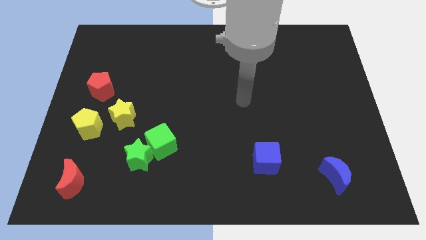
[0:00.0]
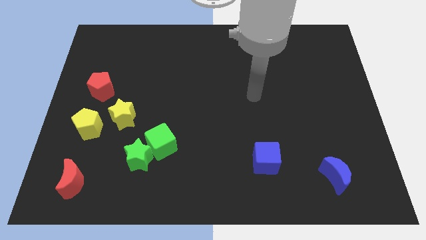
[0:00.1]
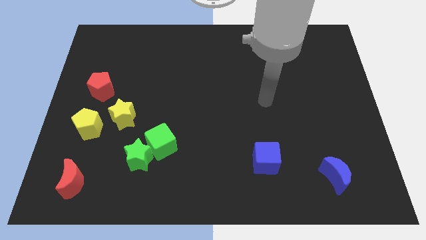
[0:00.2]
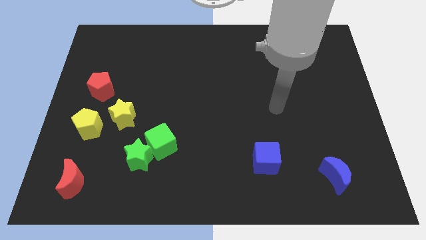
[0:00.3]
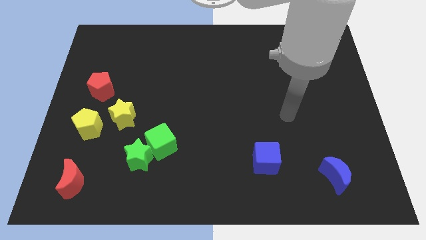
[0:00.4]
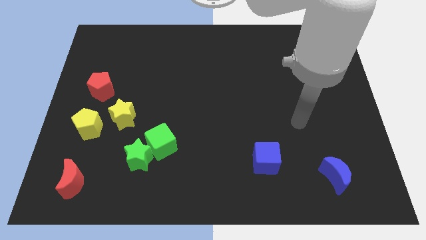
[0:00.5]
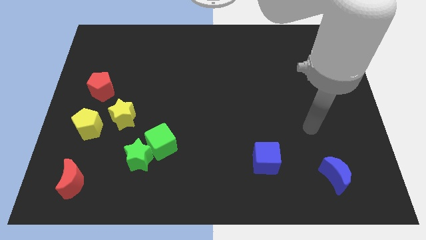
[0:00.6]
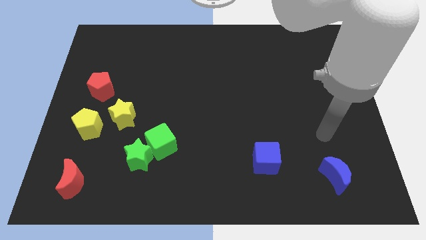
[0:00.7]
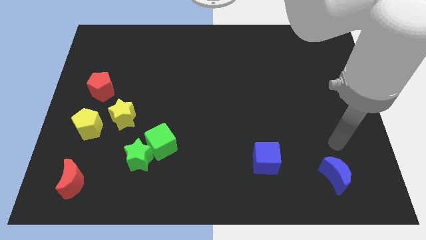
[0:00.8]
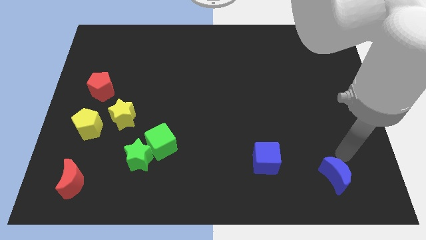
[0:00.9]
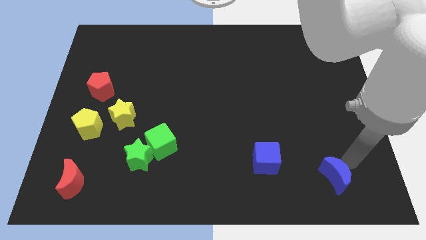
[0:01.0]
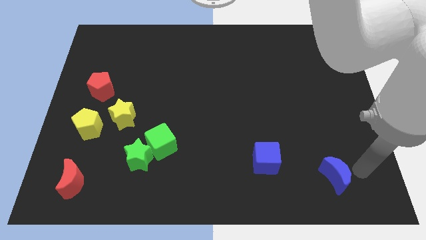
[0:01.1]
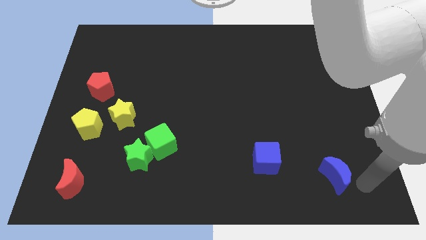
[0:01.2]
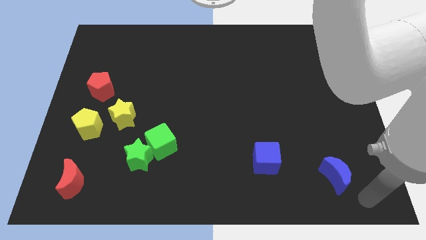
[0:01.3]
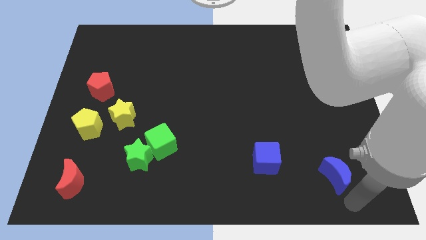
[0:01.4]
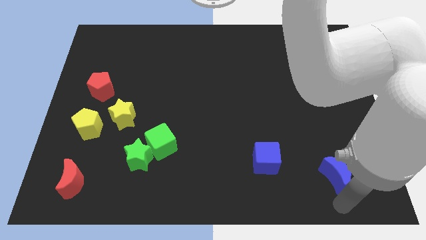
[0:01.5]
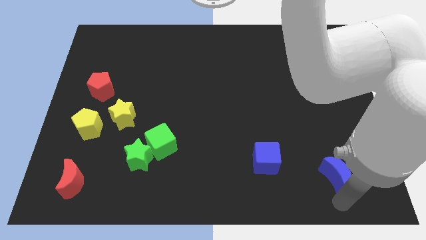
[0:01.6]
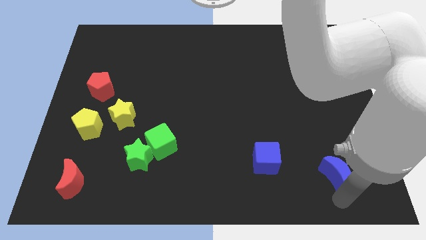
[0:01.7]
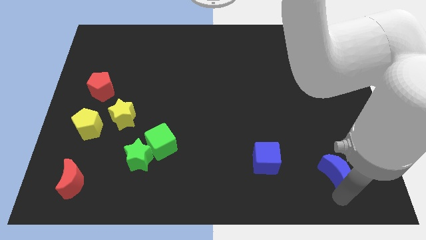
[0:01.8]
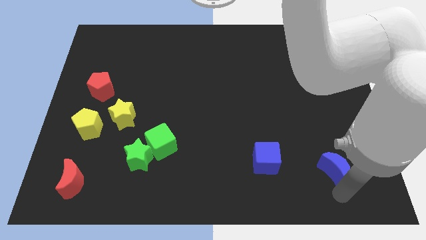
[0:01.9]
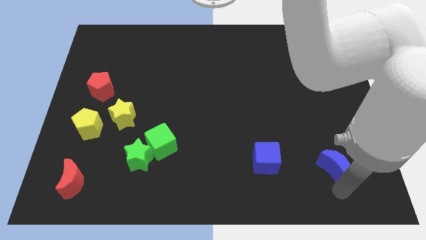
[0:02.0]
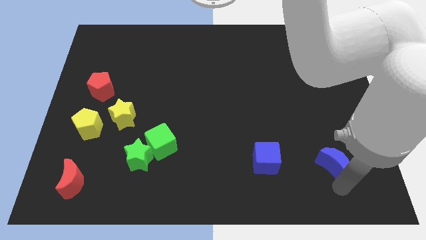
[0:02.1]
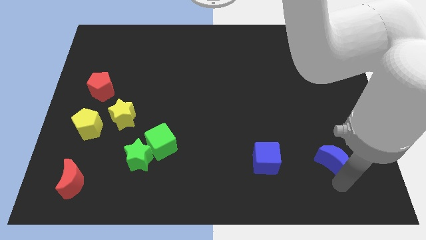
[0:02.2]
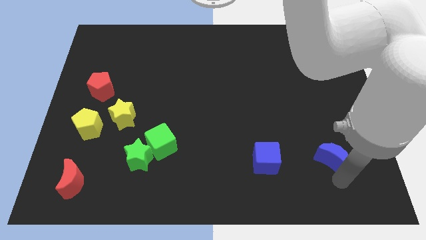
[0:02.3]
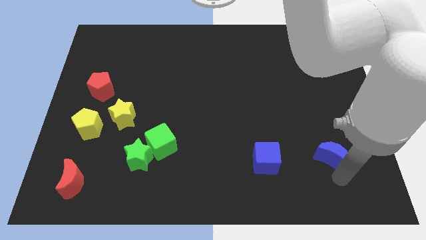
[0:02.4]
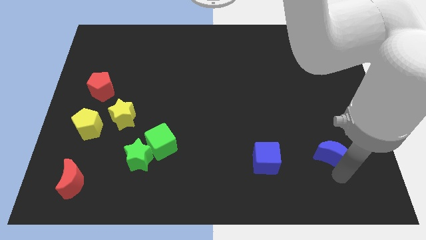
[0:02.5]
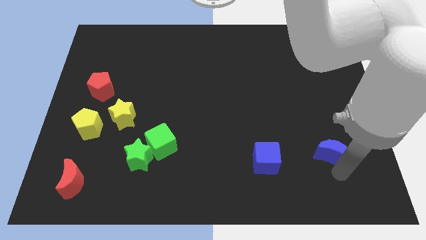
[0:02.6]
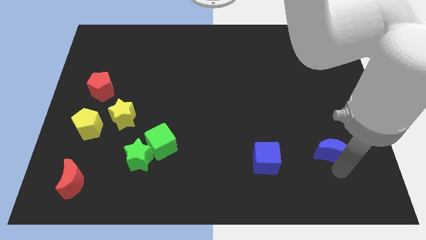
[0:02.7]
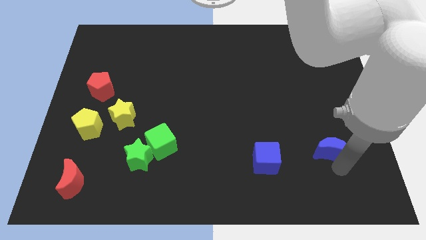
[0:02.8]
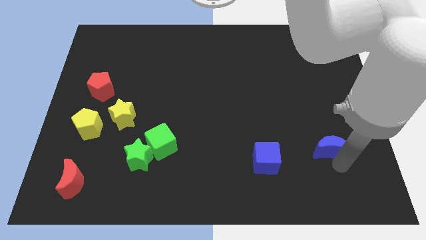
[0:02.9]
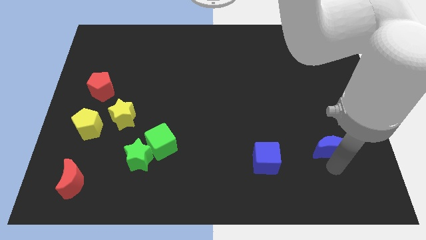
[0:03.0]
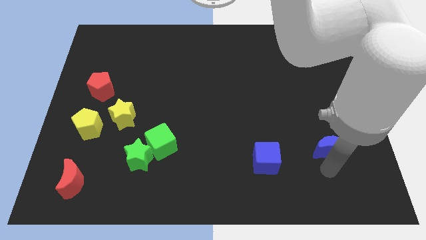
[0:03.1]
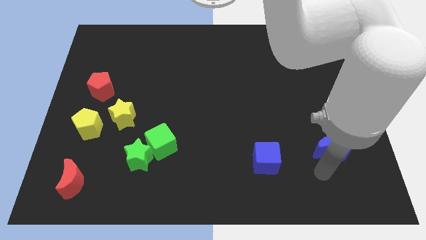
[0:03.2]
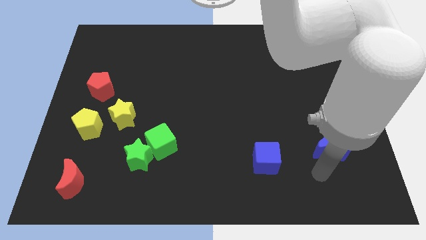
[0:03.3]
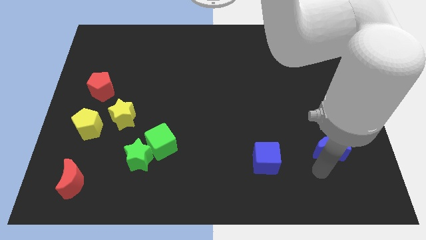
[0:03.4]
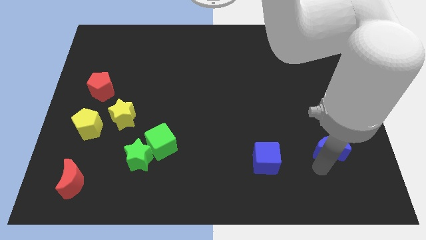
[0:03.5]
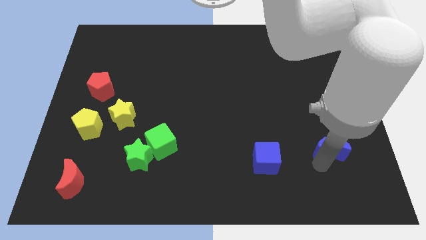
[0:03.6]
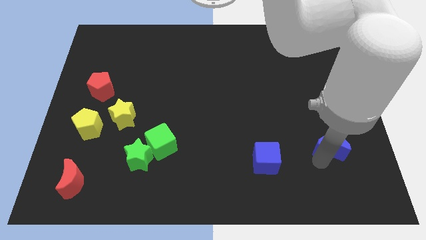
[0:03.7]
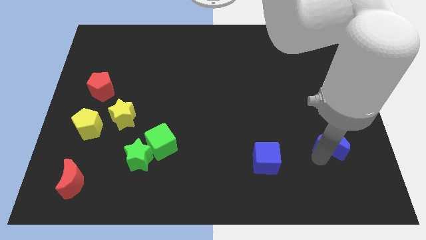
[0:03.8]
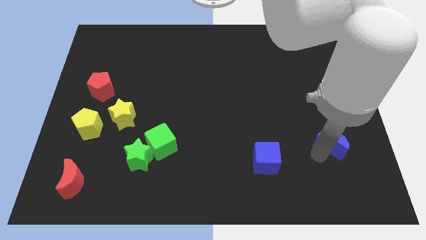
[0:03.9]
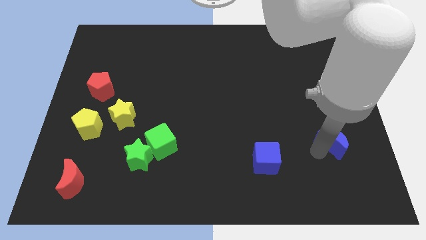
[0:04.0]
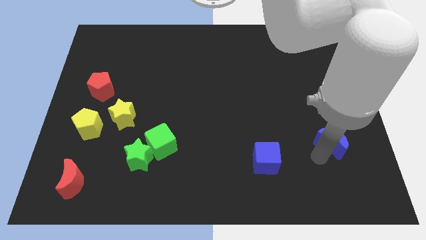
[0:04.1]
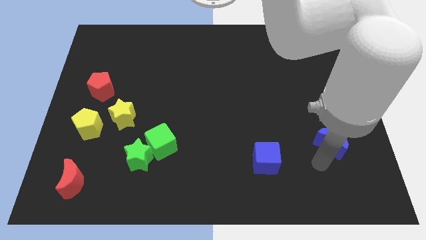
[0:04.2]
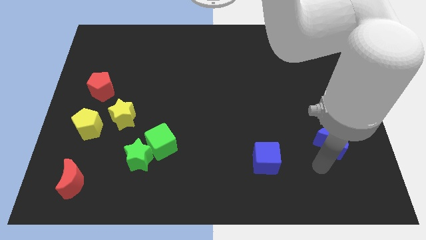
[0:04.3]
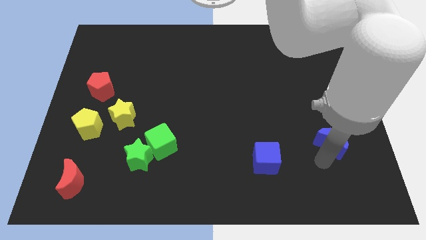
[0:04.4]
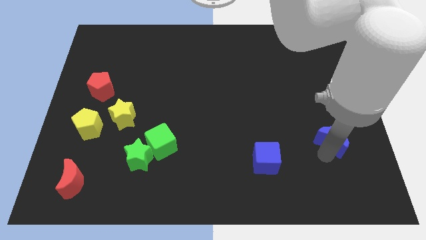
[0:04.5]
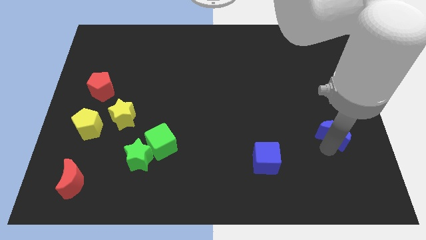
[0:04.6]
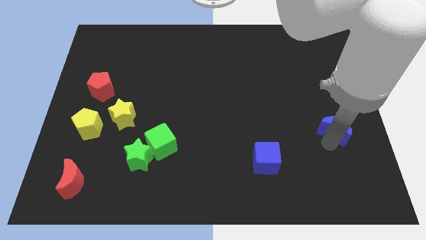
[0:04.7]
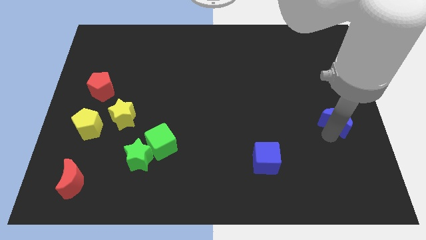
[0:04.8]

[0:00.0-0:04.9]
push the blue moon to the center right

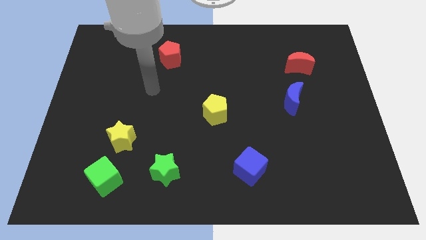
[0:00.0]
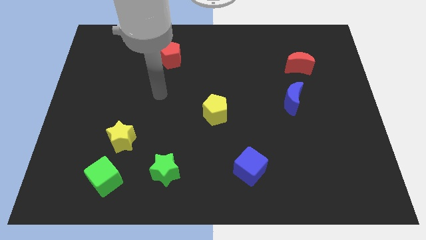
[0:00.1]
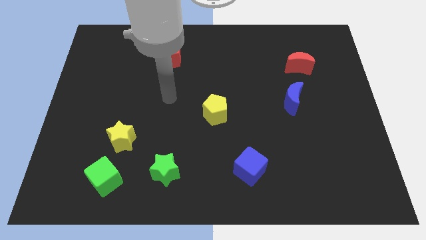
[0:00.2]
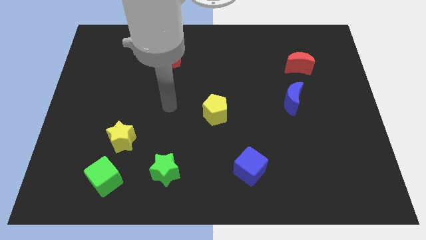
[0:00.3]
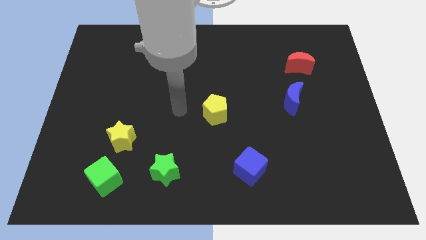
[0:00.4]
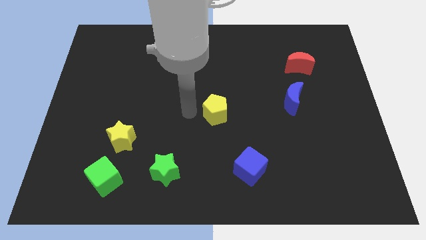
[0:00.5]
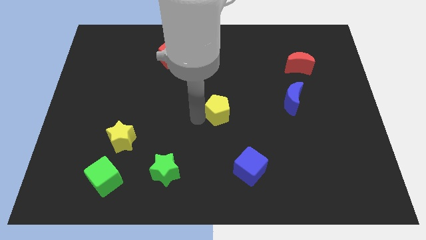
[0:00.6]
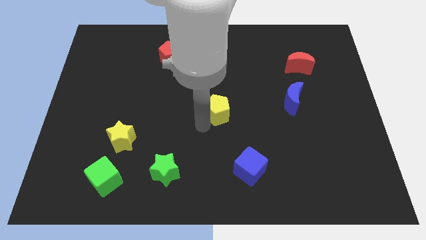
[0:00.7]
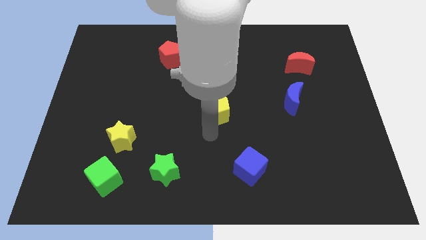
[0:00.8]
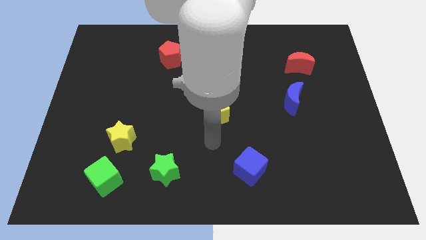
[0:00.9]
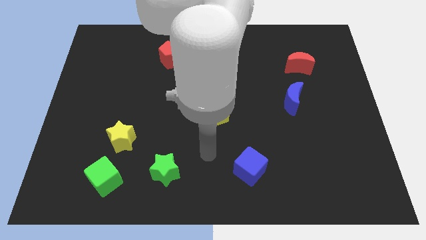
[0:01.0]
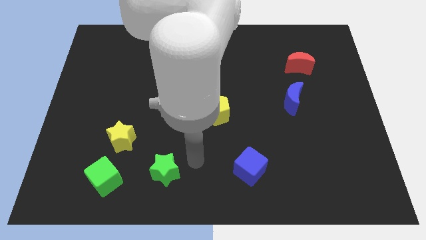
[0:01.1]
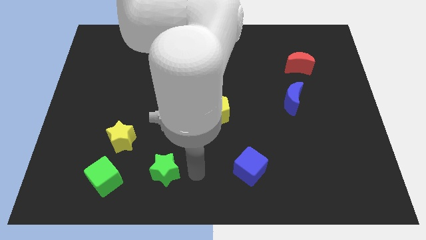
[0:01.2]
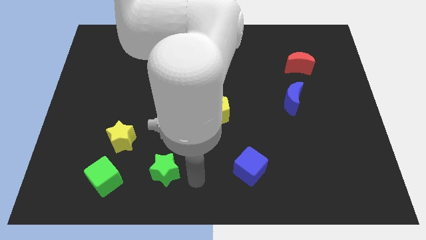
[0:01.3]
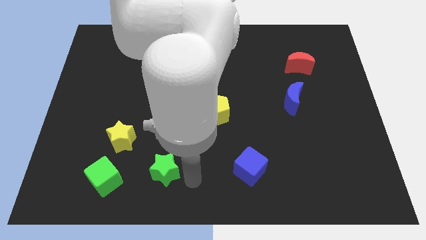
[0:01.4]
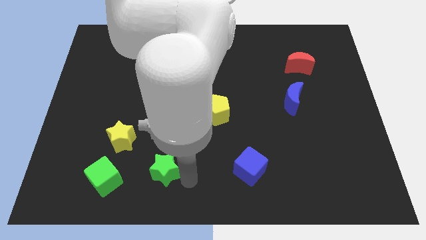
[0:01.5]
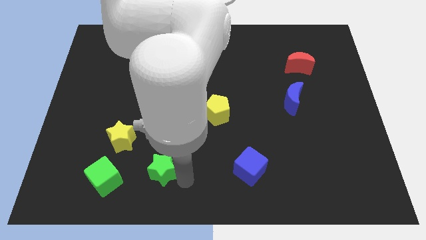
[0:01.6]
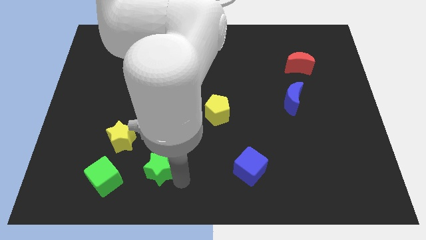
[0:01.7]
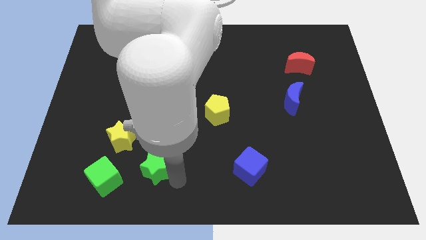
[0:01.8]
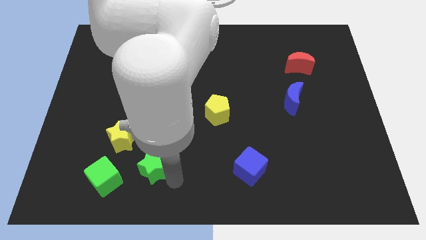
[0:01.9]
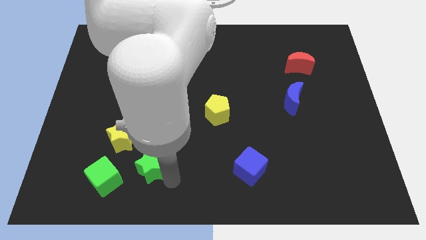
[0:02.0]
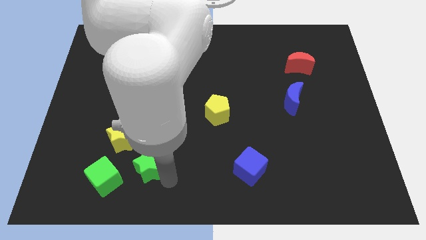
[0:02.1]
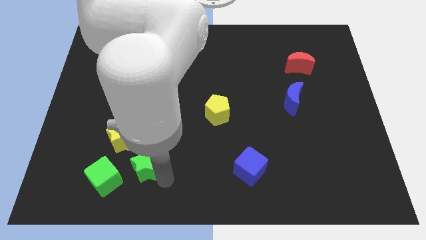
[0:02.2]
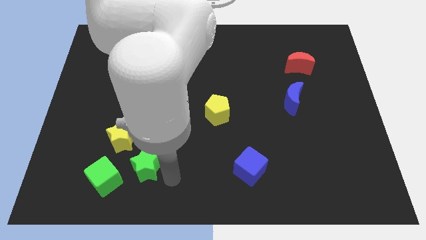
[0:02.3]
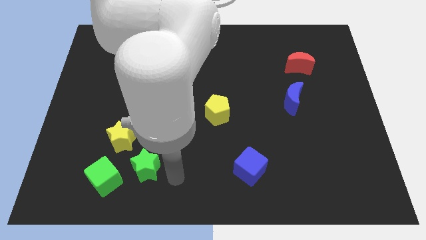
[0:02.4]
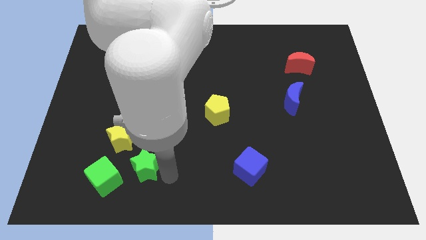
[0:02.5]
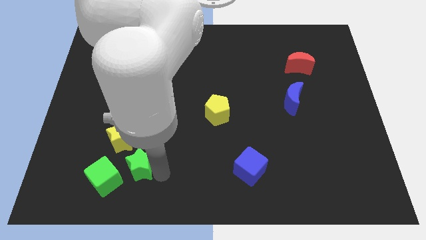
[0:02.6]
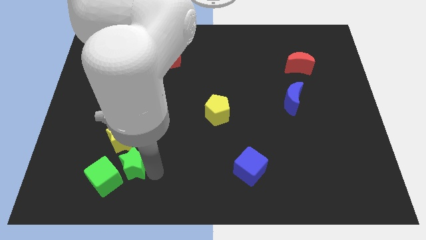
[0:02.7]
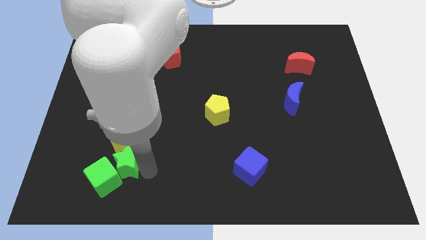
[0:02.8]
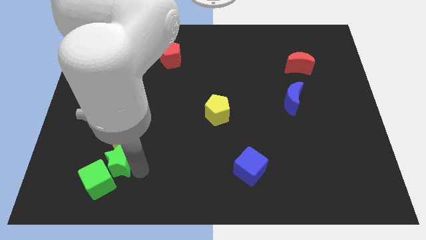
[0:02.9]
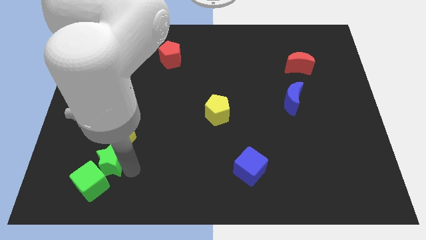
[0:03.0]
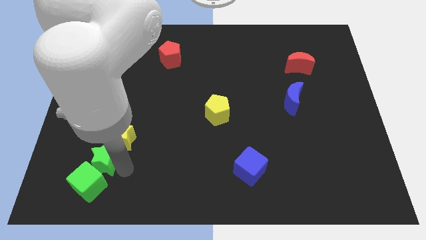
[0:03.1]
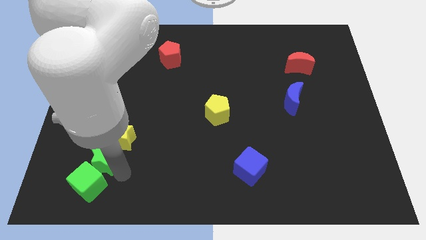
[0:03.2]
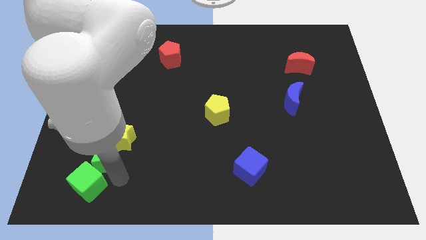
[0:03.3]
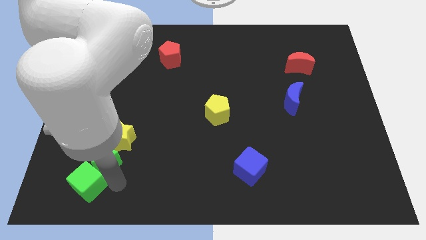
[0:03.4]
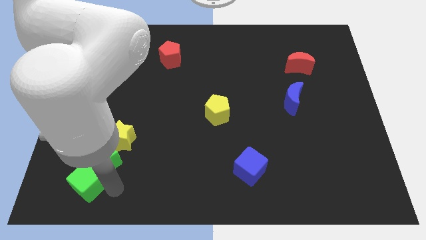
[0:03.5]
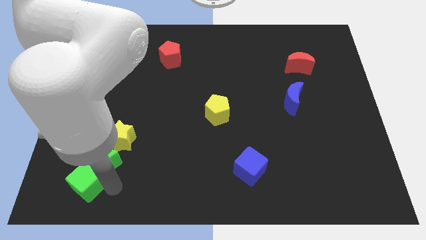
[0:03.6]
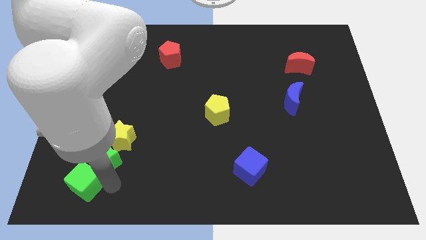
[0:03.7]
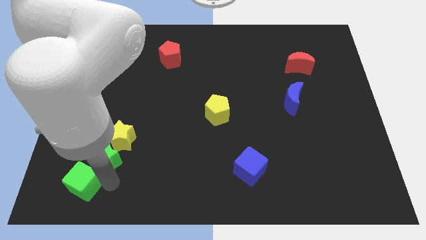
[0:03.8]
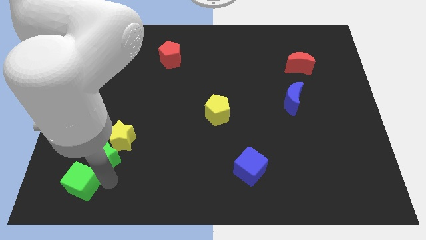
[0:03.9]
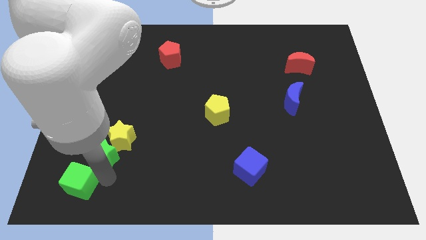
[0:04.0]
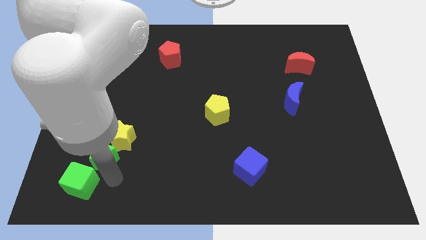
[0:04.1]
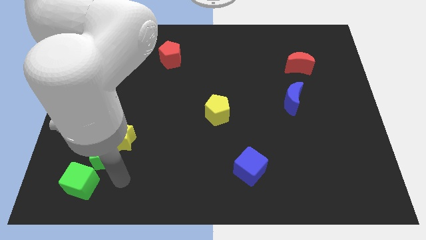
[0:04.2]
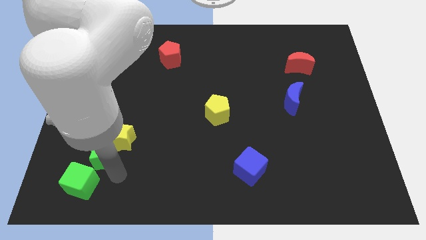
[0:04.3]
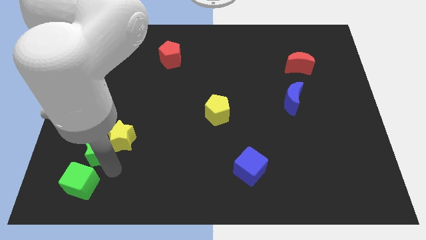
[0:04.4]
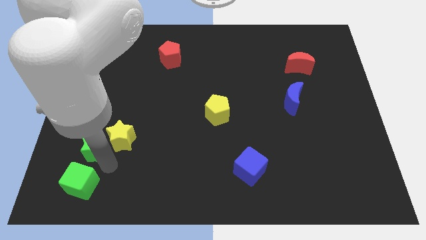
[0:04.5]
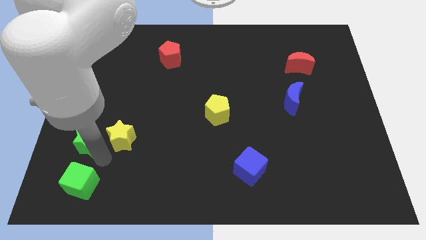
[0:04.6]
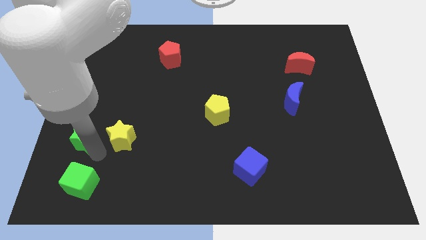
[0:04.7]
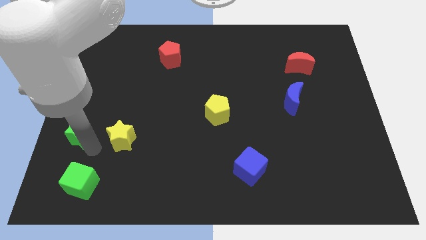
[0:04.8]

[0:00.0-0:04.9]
put the green star to the left side
